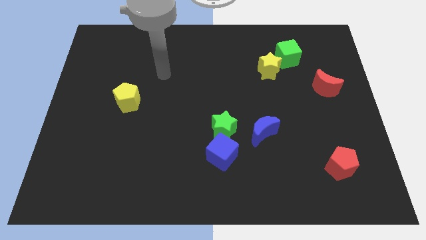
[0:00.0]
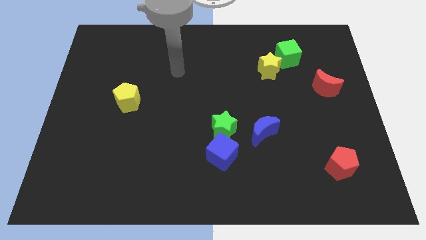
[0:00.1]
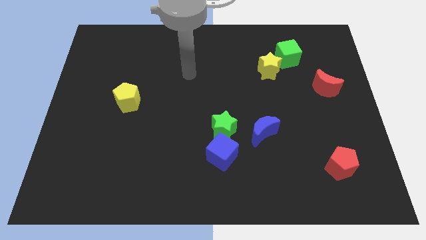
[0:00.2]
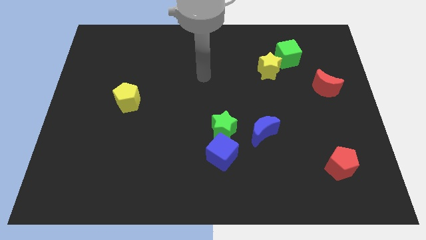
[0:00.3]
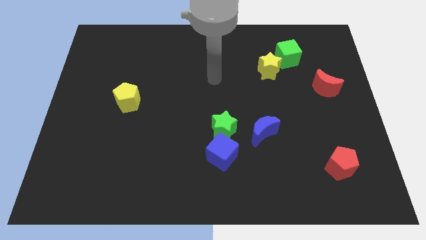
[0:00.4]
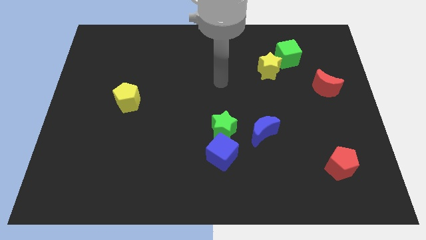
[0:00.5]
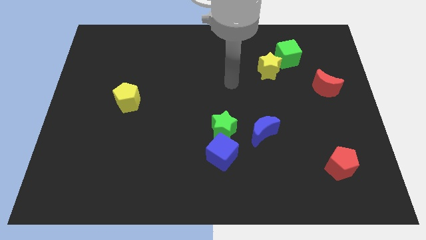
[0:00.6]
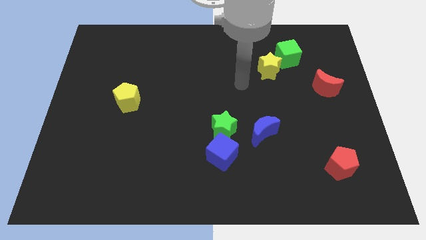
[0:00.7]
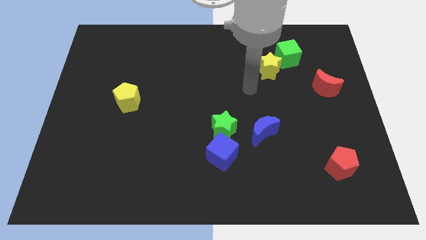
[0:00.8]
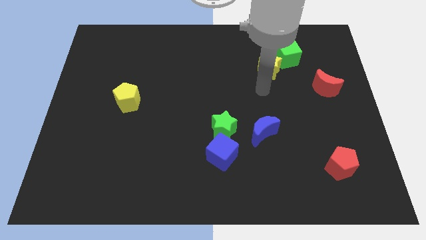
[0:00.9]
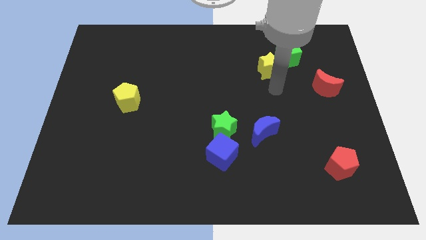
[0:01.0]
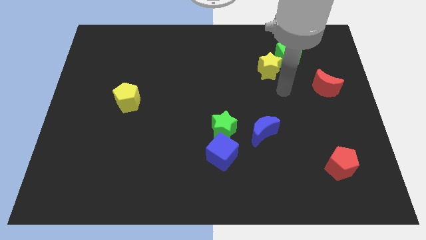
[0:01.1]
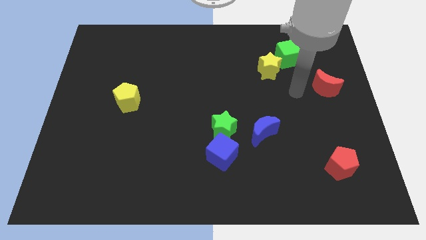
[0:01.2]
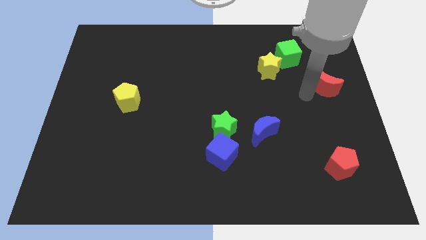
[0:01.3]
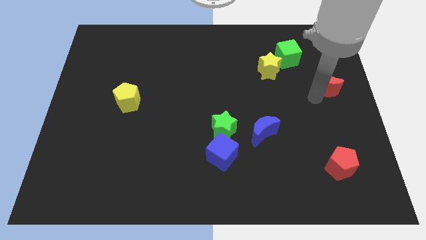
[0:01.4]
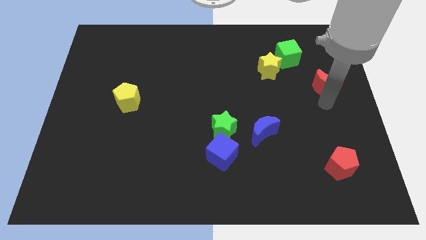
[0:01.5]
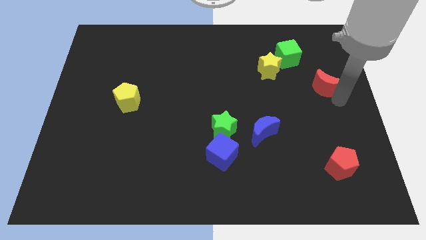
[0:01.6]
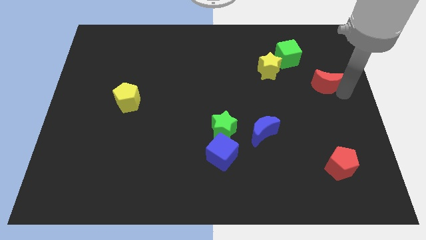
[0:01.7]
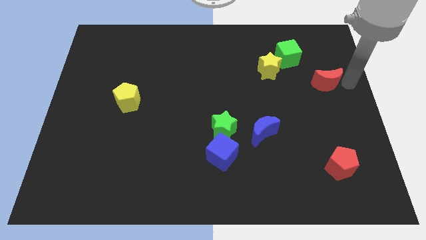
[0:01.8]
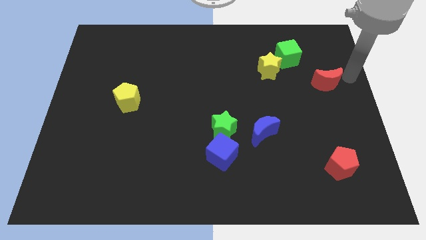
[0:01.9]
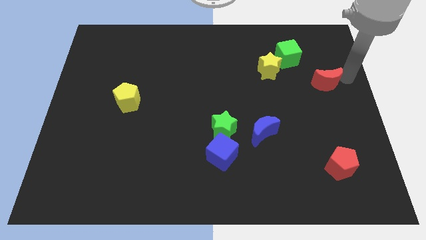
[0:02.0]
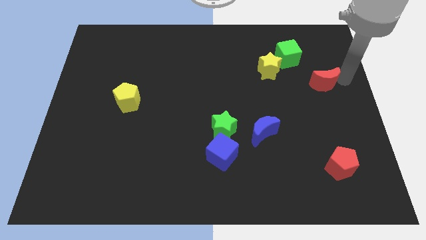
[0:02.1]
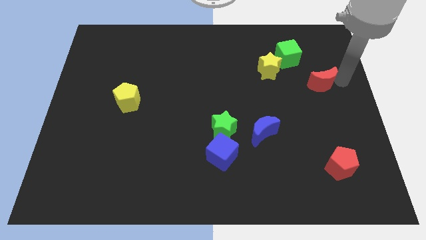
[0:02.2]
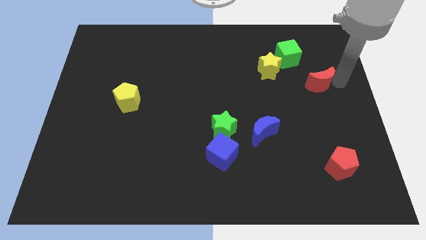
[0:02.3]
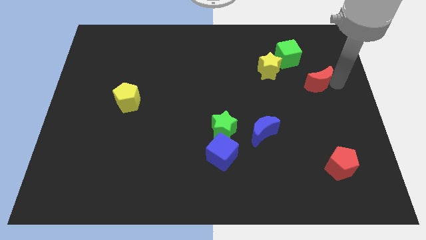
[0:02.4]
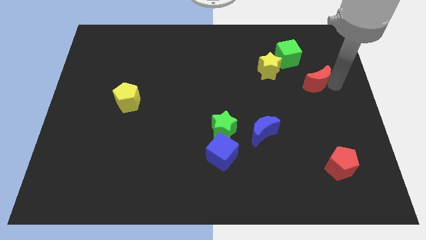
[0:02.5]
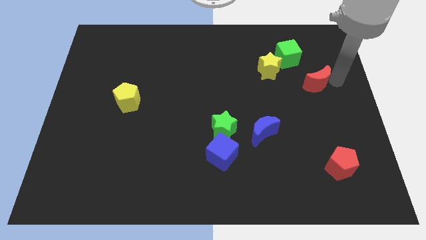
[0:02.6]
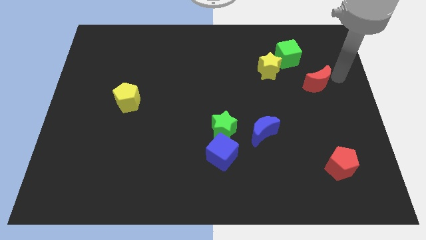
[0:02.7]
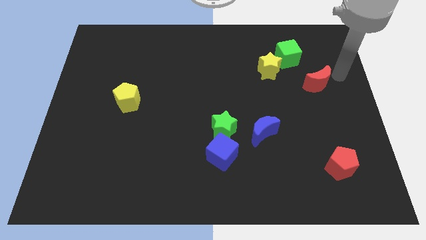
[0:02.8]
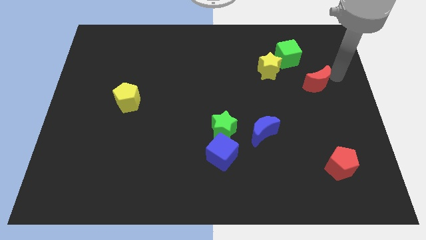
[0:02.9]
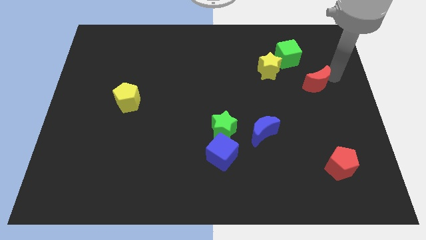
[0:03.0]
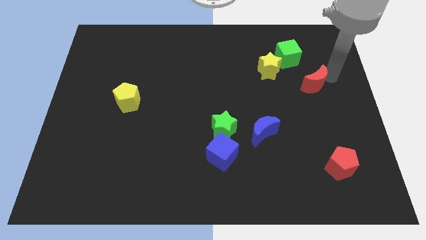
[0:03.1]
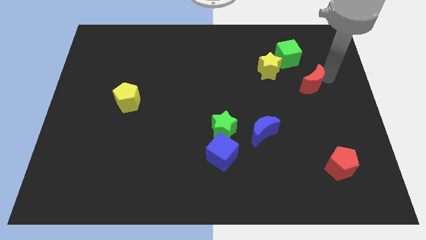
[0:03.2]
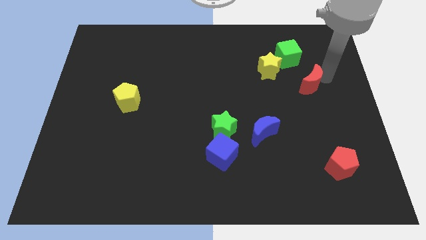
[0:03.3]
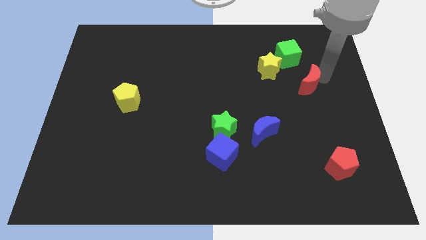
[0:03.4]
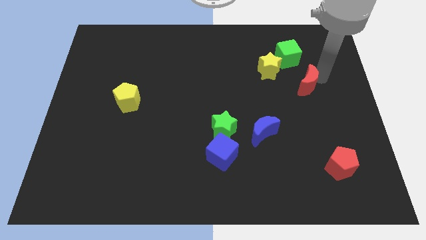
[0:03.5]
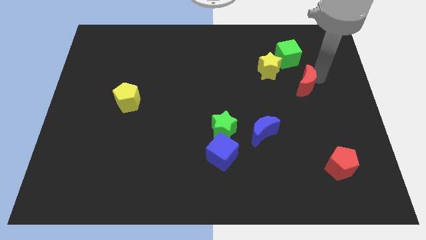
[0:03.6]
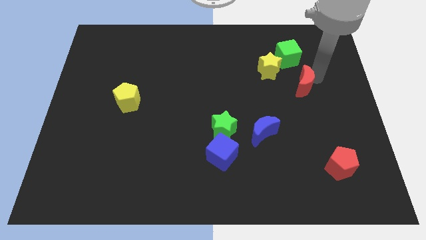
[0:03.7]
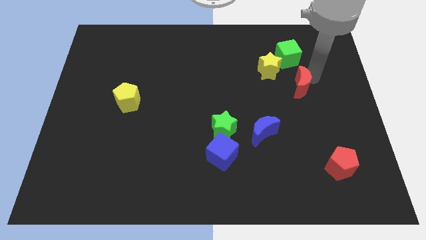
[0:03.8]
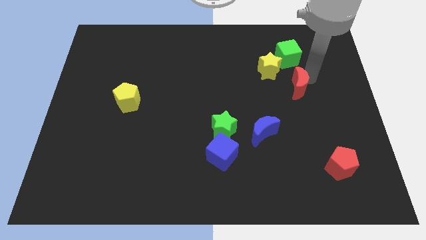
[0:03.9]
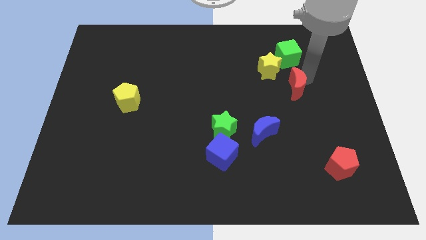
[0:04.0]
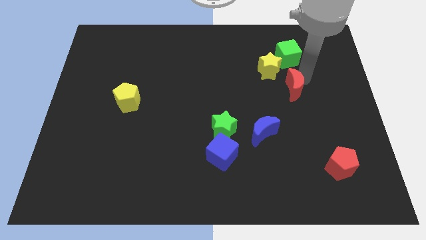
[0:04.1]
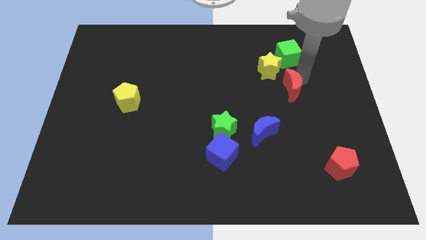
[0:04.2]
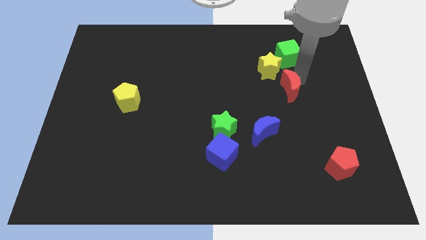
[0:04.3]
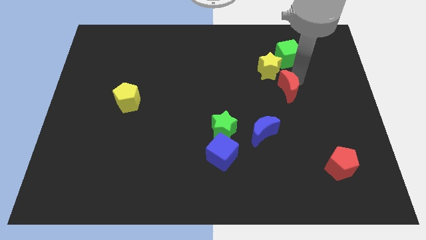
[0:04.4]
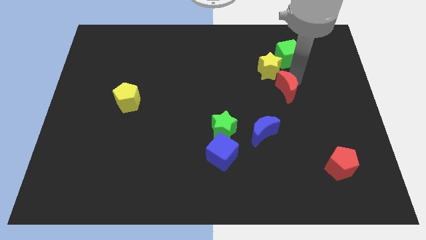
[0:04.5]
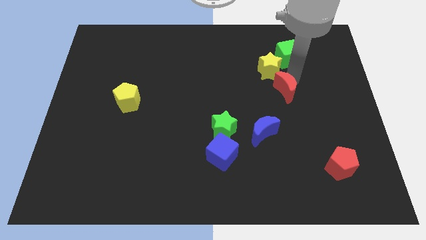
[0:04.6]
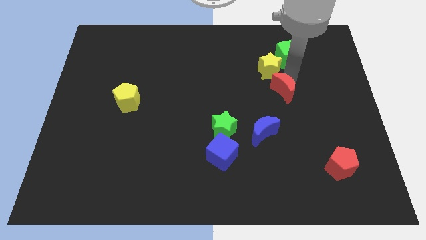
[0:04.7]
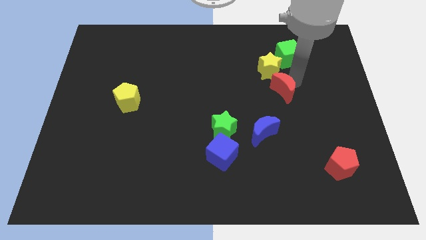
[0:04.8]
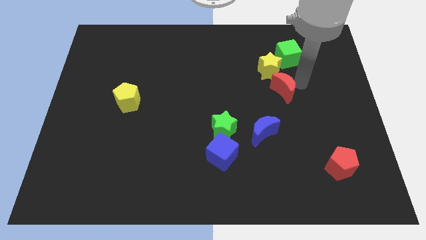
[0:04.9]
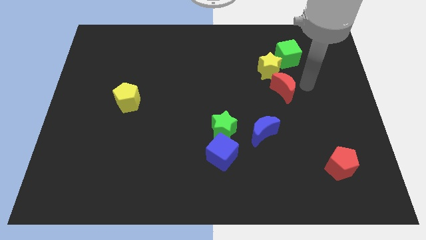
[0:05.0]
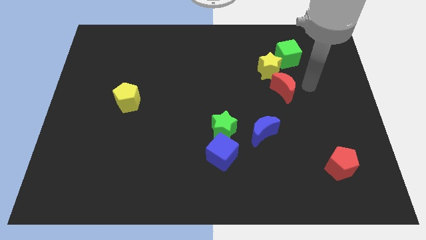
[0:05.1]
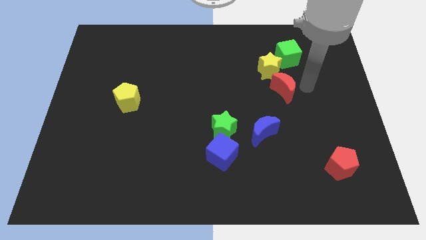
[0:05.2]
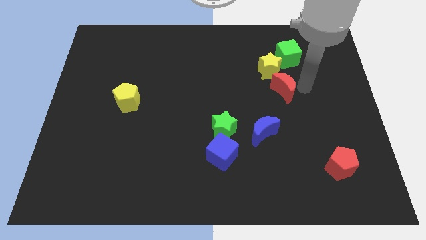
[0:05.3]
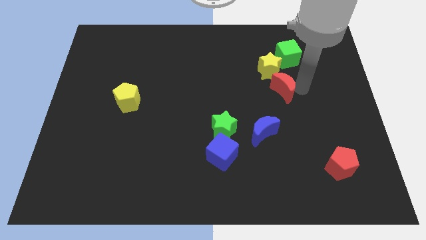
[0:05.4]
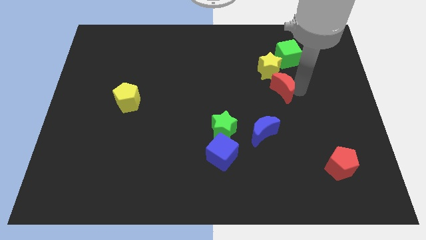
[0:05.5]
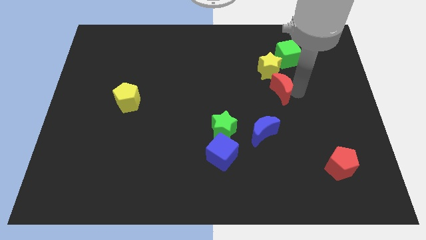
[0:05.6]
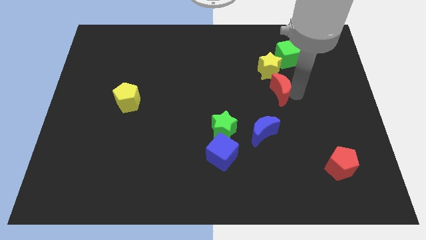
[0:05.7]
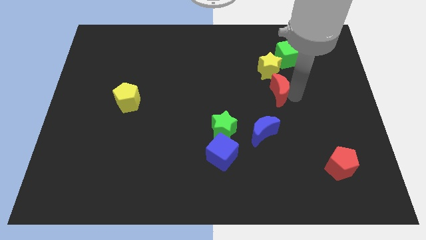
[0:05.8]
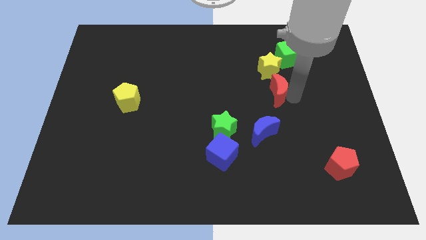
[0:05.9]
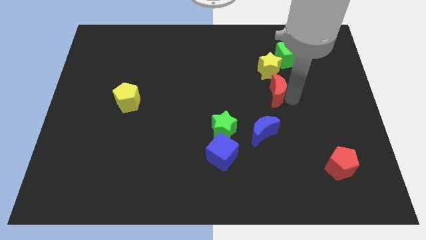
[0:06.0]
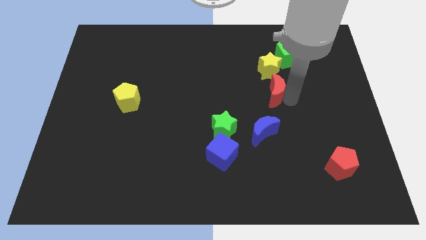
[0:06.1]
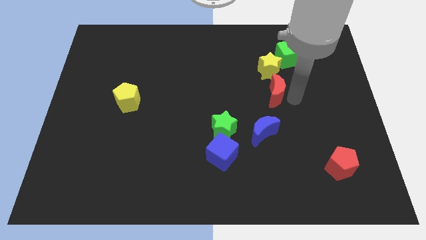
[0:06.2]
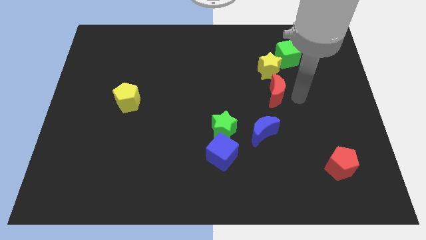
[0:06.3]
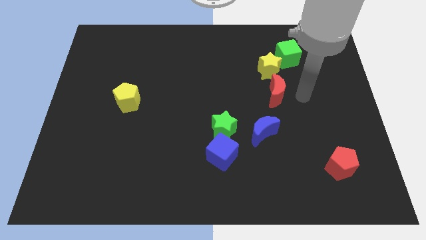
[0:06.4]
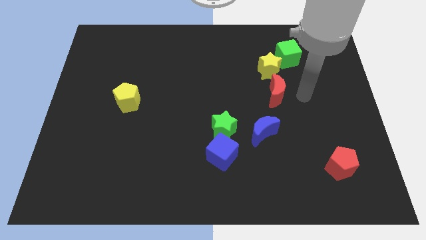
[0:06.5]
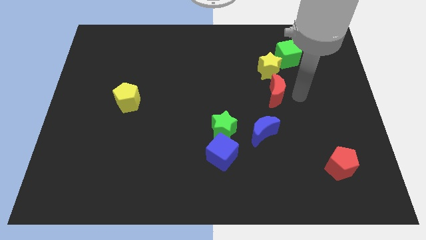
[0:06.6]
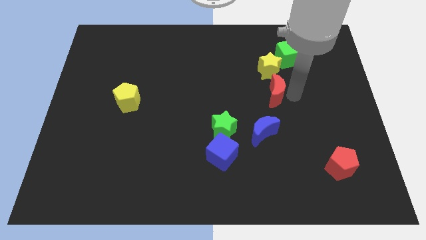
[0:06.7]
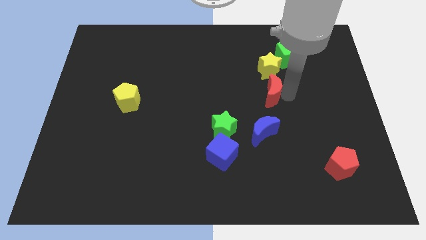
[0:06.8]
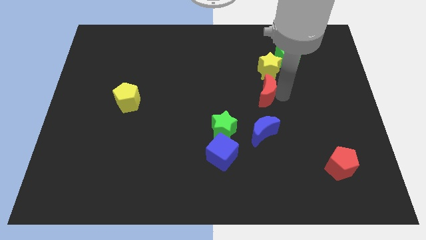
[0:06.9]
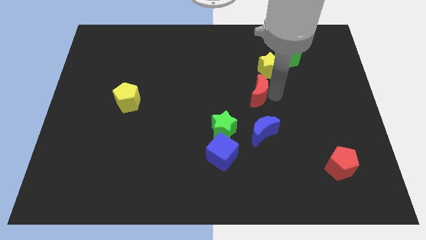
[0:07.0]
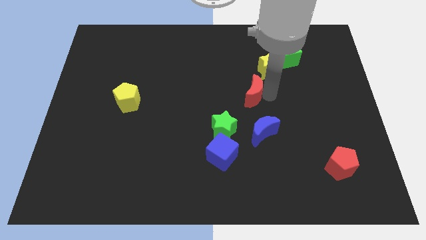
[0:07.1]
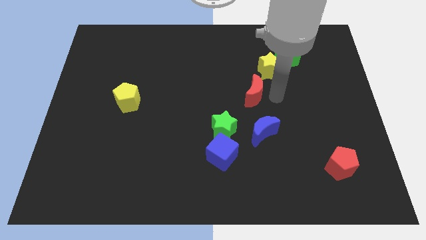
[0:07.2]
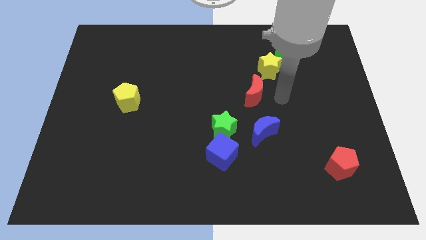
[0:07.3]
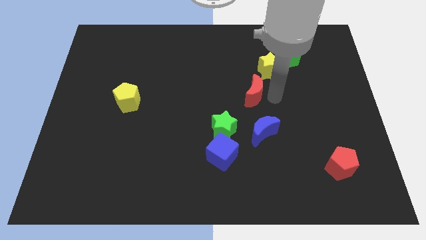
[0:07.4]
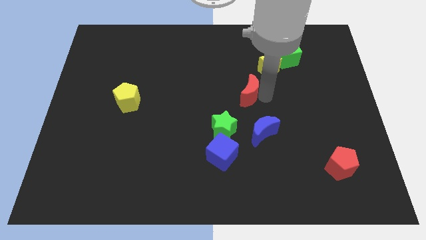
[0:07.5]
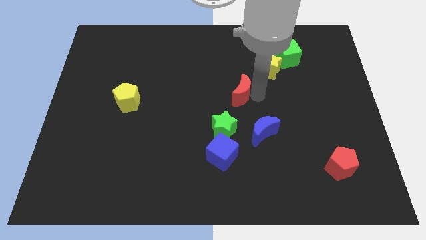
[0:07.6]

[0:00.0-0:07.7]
push the red moon to the left

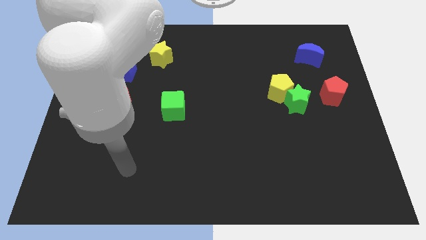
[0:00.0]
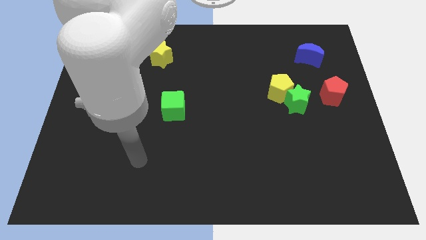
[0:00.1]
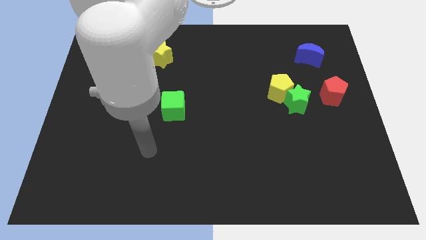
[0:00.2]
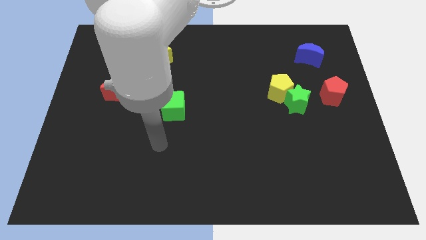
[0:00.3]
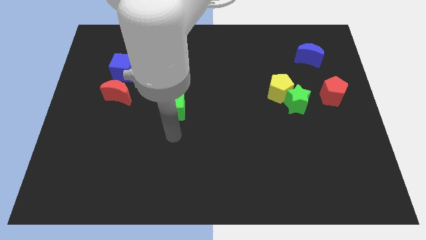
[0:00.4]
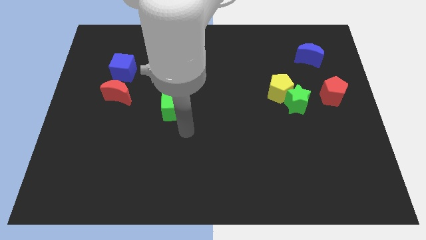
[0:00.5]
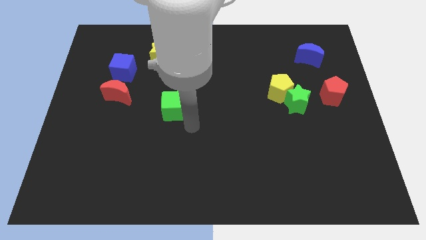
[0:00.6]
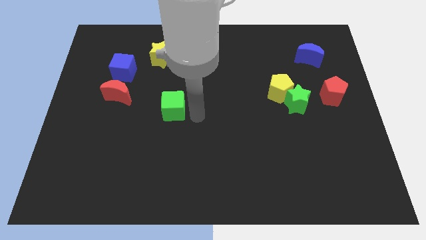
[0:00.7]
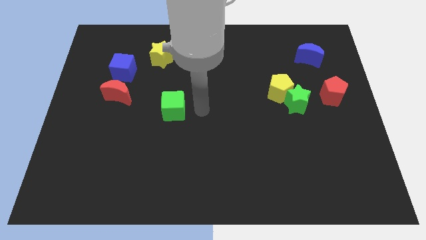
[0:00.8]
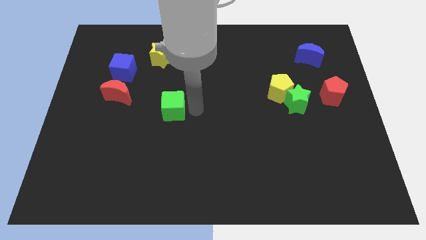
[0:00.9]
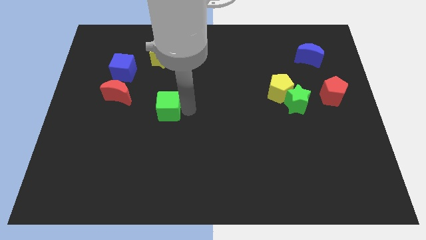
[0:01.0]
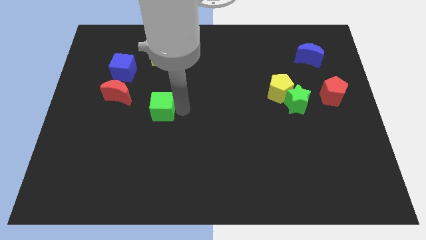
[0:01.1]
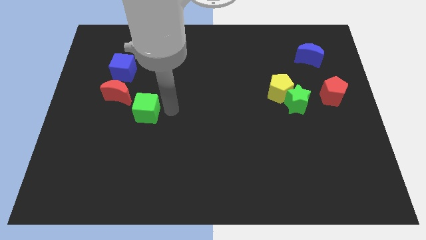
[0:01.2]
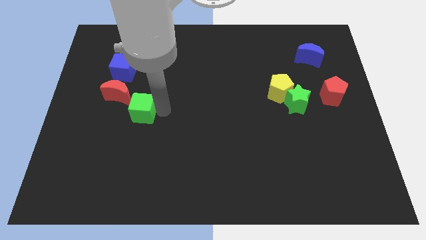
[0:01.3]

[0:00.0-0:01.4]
slightly slide the green cube to the left
